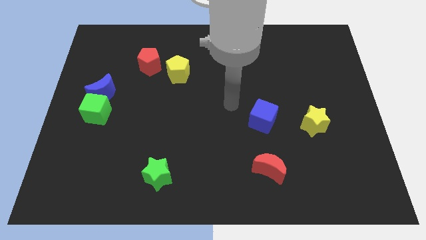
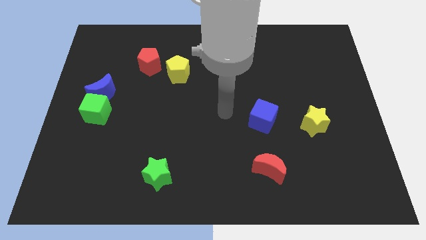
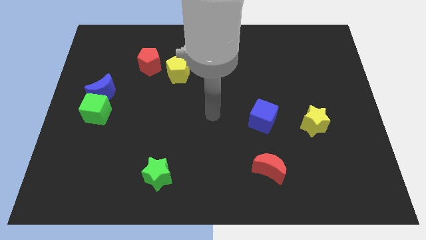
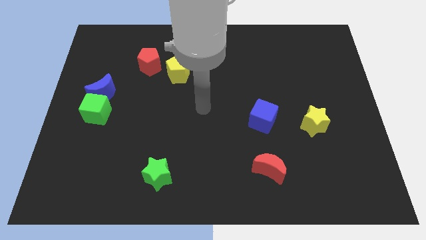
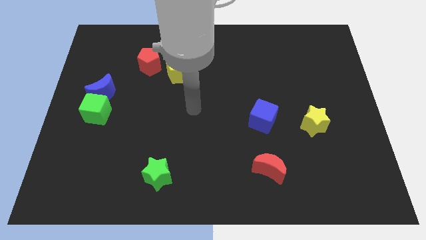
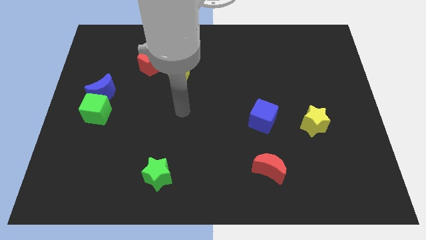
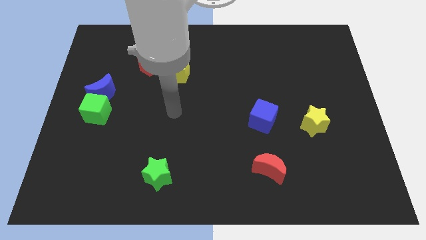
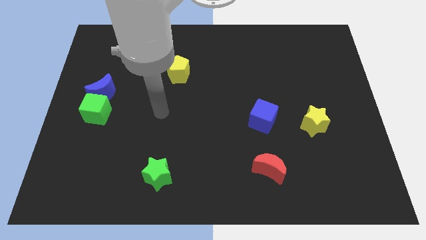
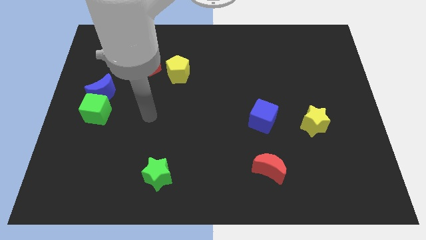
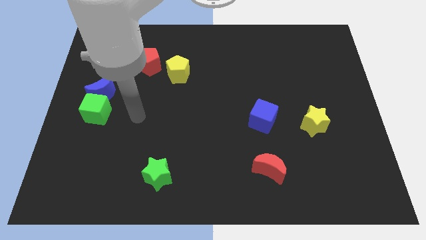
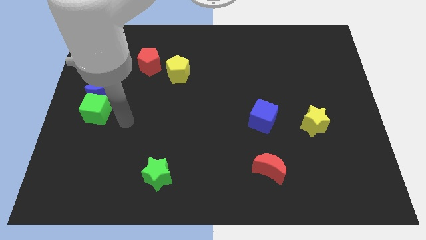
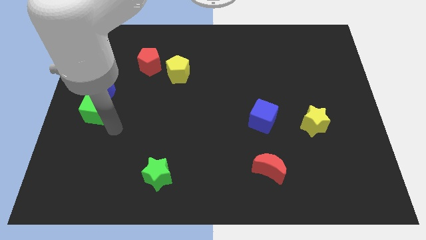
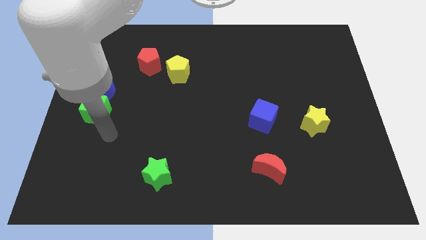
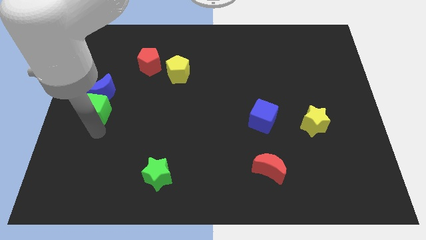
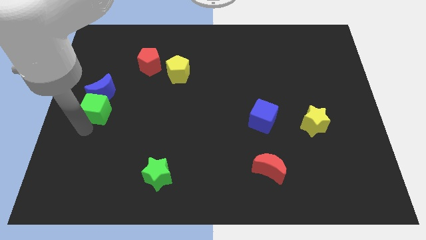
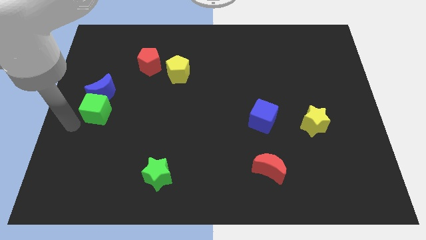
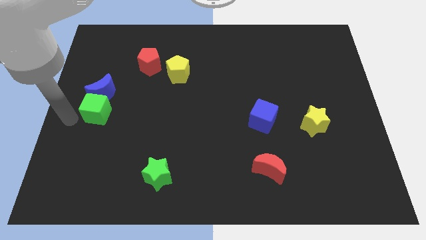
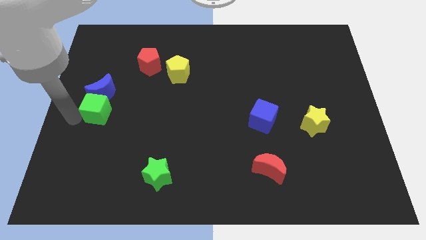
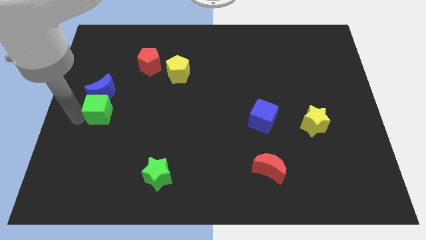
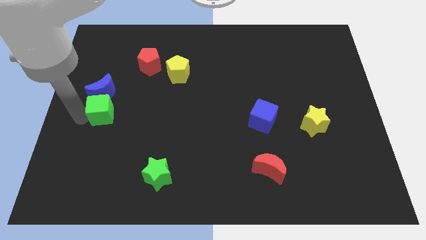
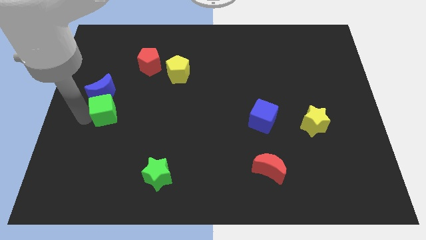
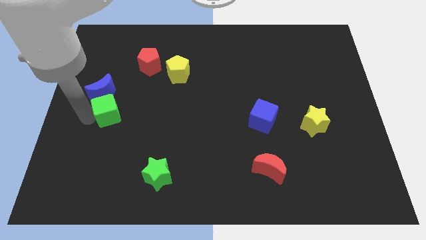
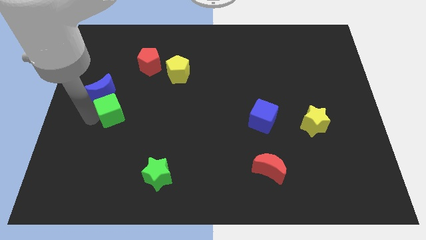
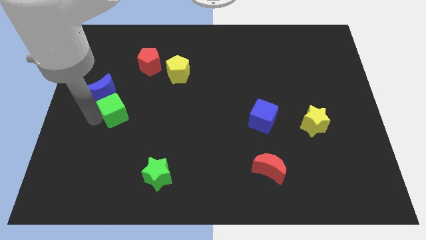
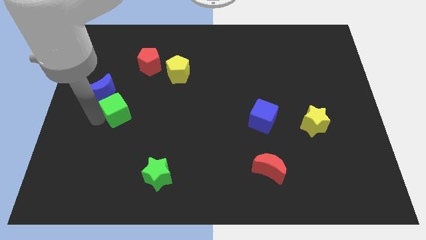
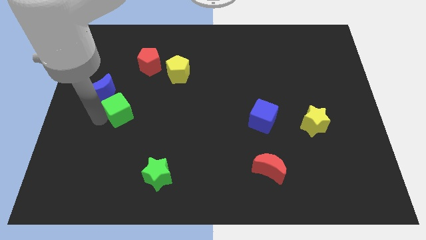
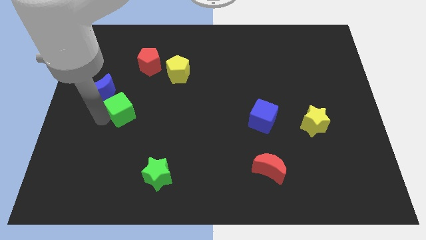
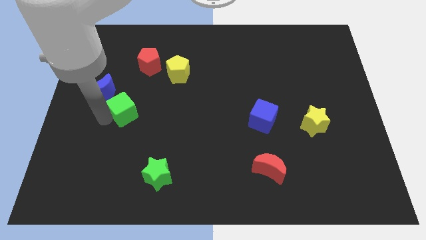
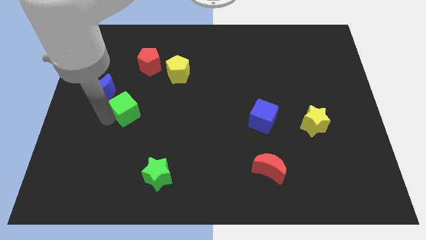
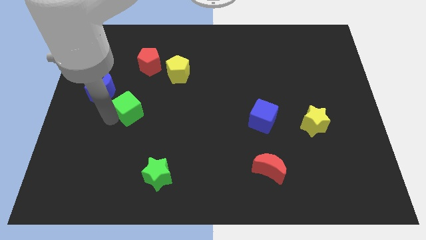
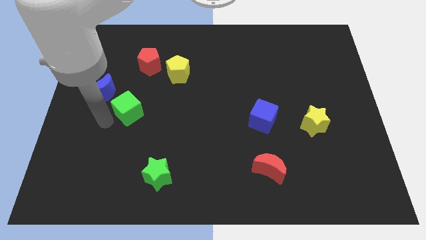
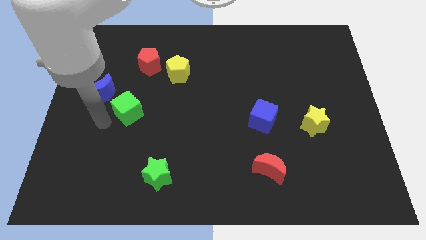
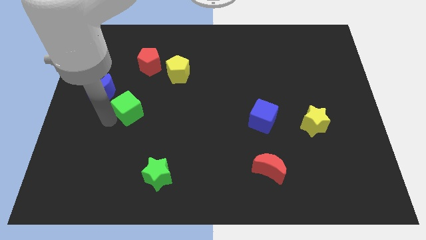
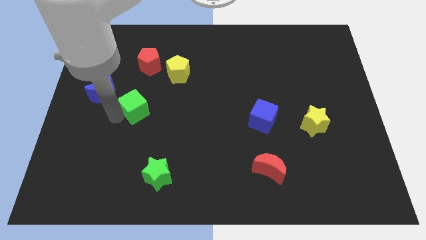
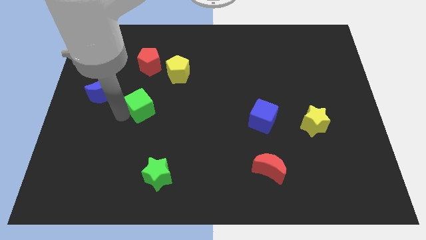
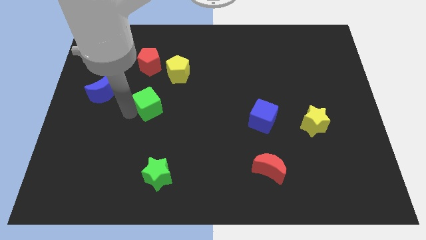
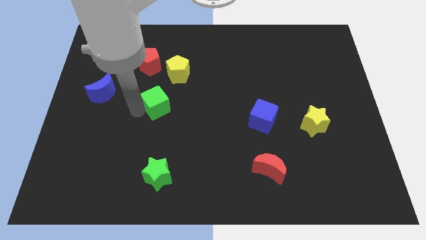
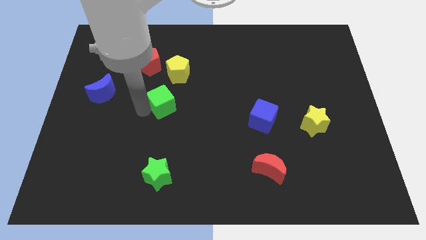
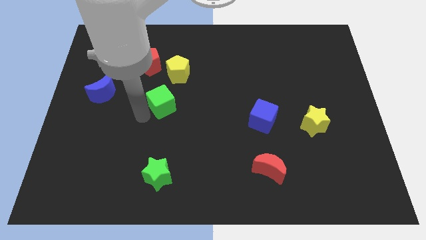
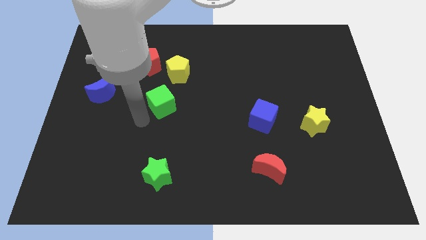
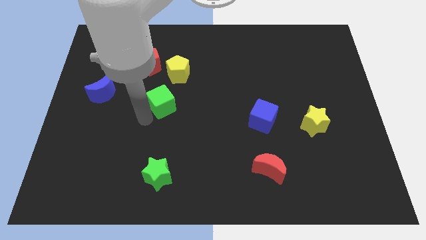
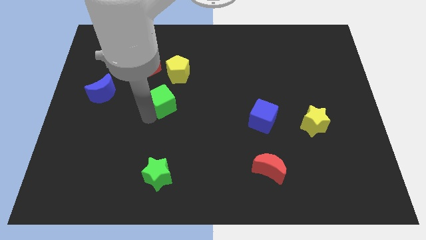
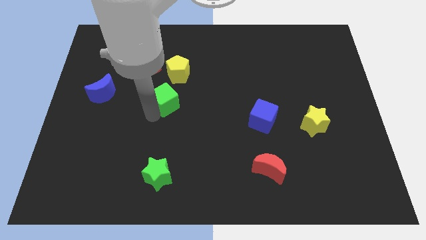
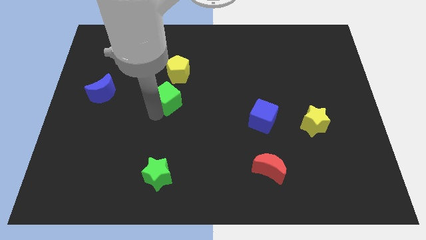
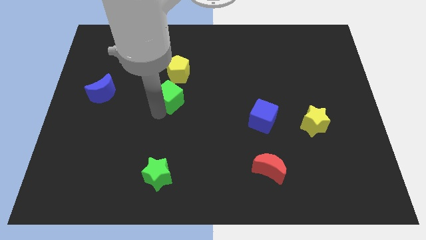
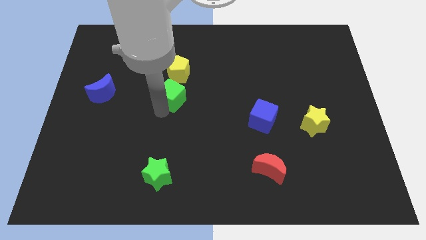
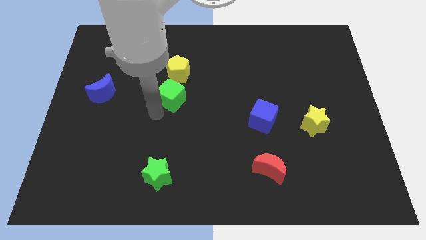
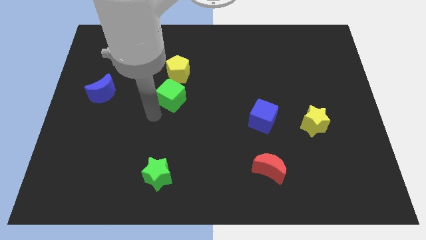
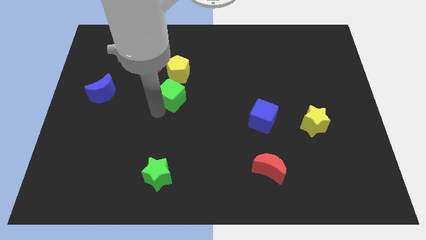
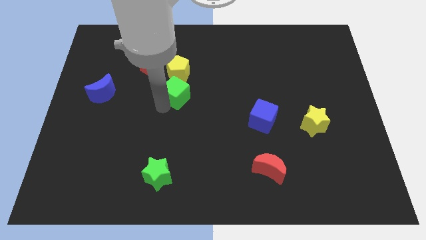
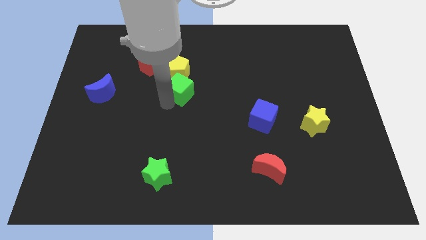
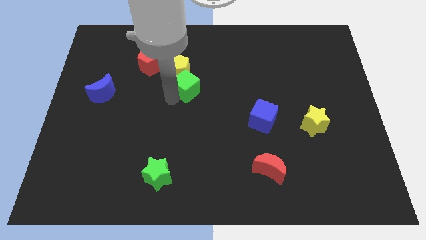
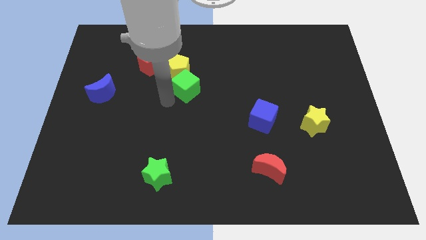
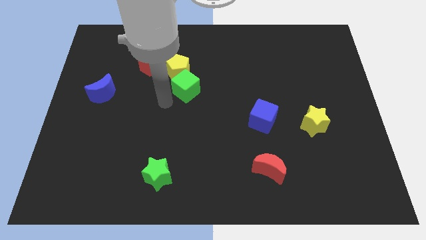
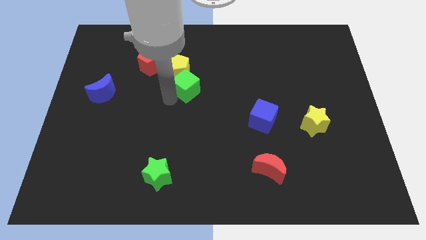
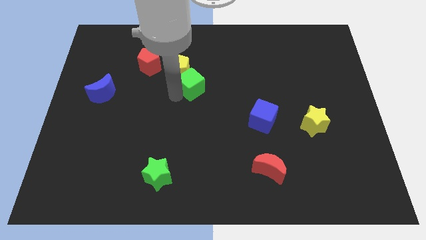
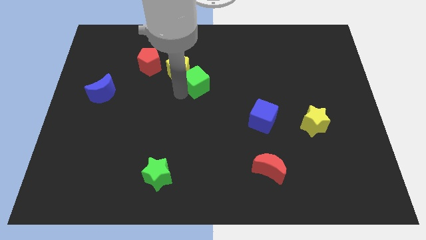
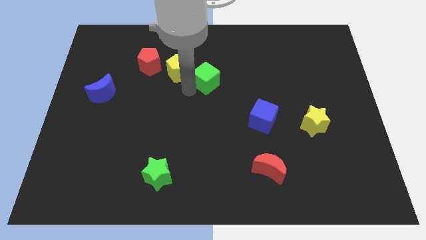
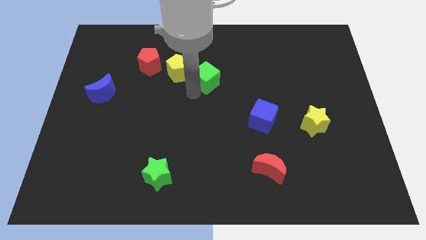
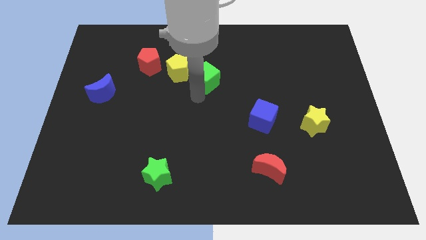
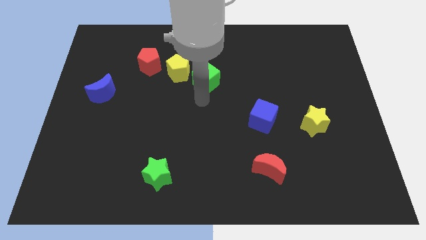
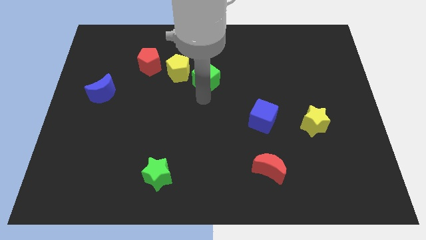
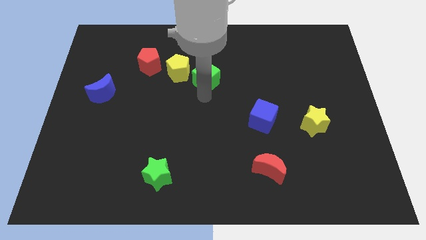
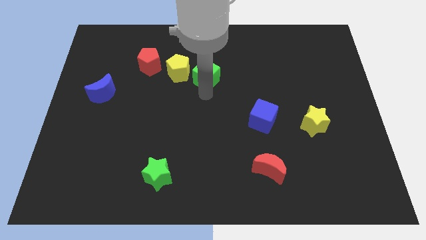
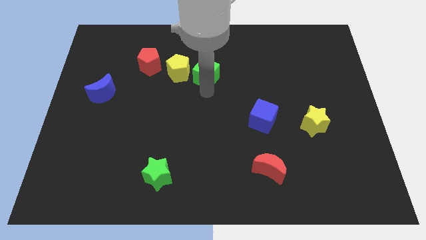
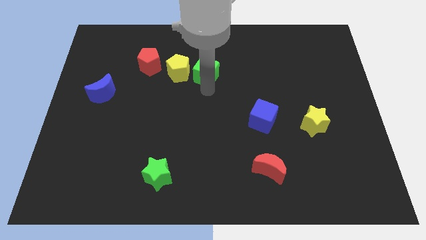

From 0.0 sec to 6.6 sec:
move the green cube to the right of the red pentagon
